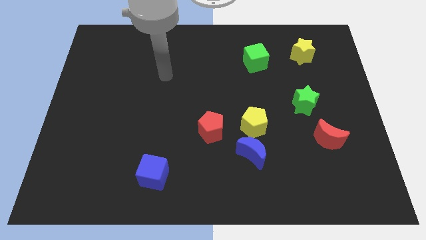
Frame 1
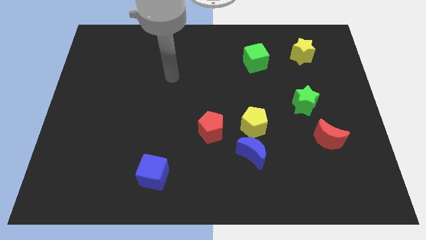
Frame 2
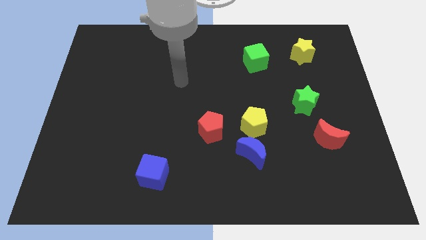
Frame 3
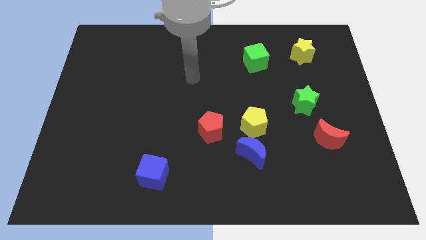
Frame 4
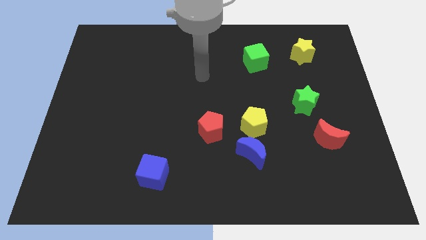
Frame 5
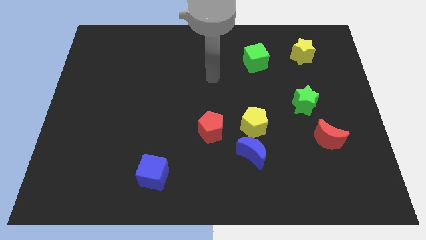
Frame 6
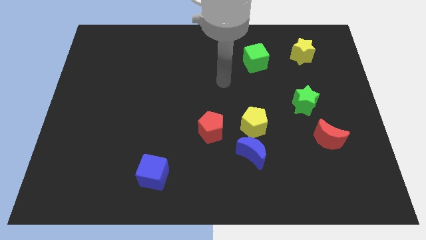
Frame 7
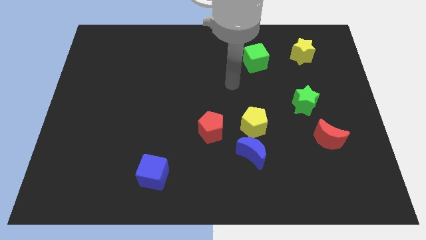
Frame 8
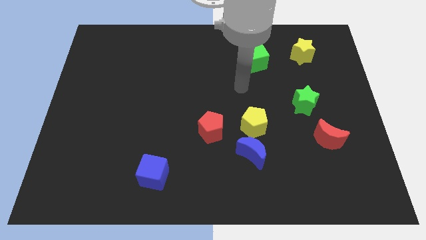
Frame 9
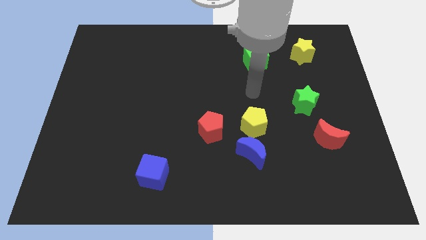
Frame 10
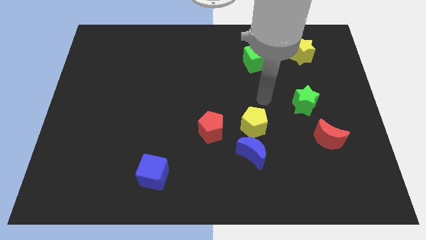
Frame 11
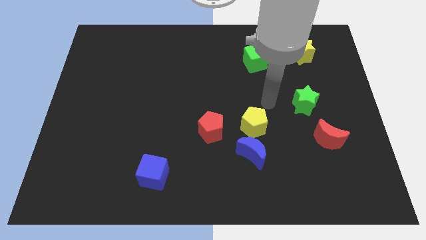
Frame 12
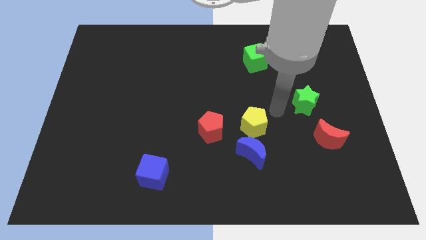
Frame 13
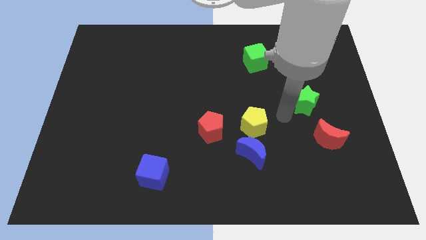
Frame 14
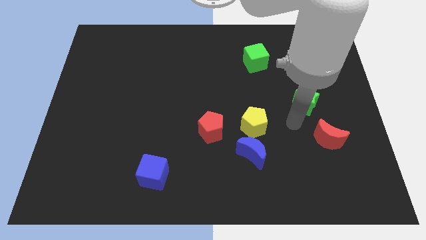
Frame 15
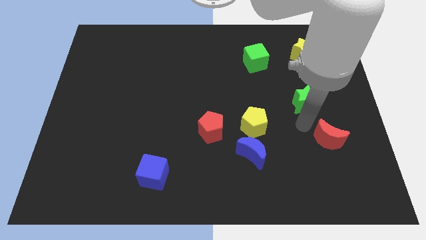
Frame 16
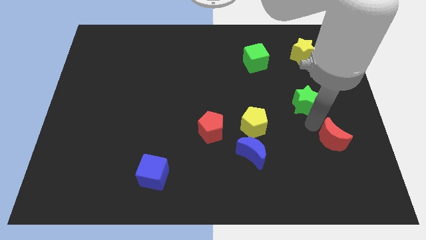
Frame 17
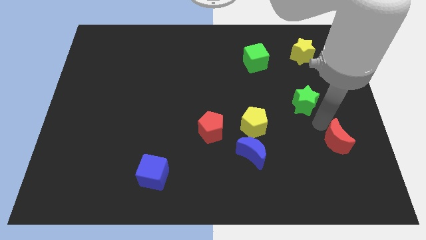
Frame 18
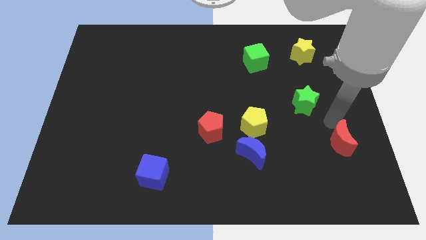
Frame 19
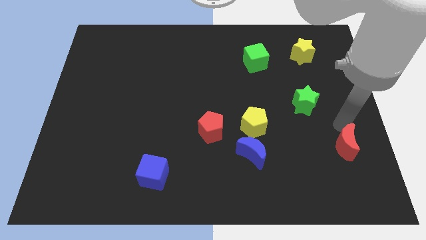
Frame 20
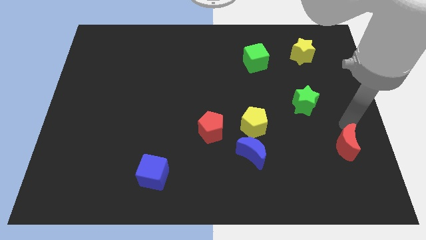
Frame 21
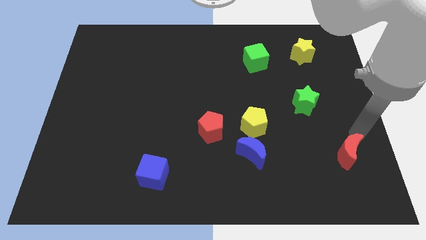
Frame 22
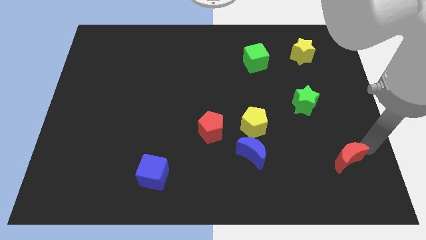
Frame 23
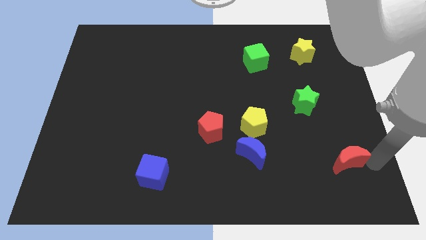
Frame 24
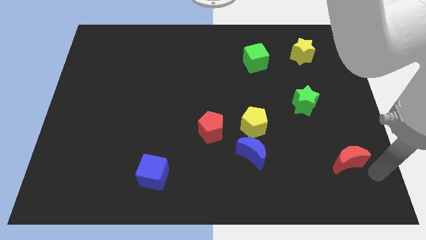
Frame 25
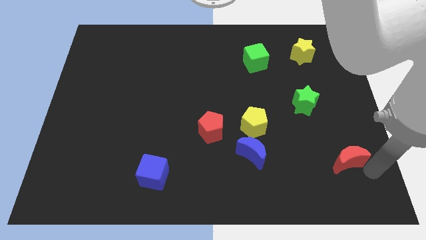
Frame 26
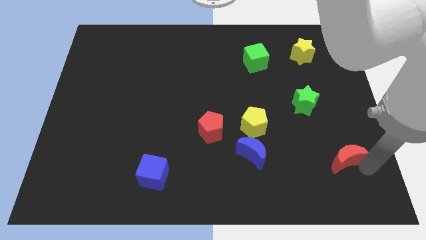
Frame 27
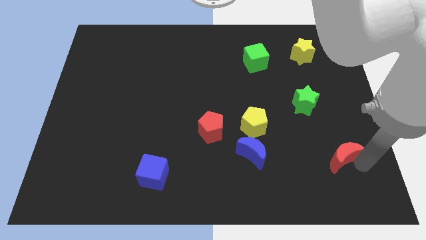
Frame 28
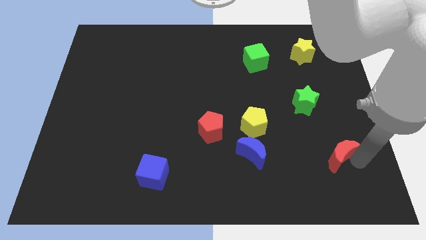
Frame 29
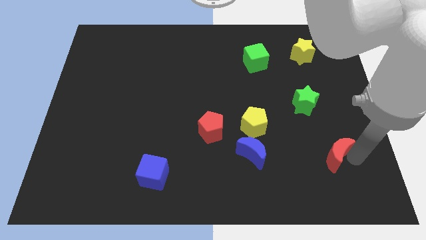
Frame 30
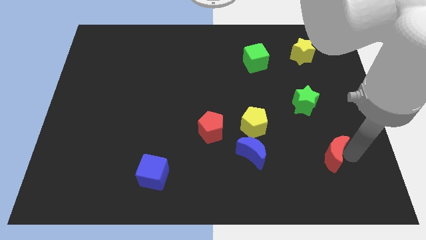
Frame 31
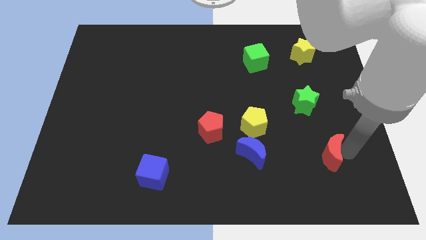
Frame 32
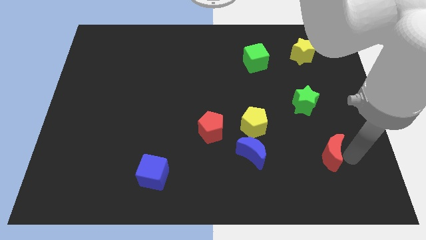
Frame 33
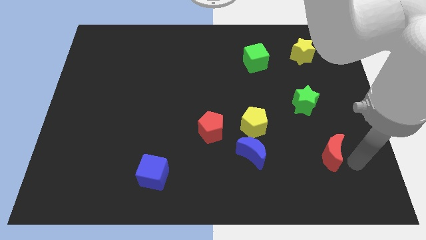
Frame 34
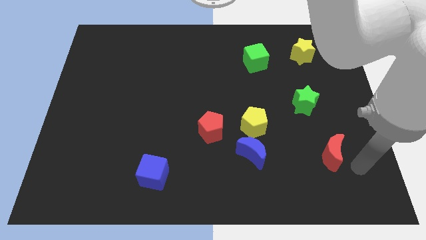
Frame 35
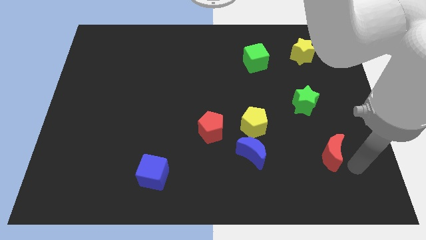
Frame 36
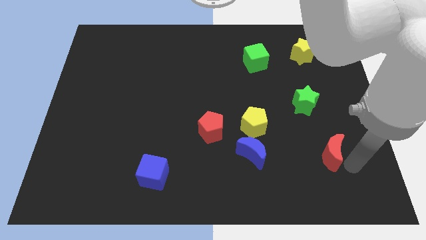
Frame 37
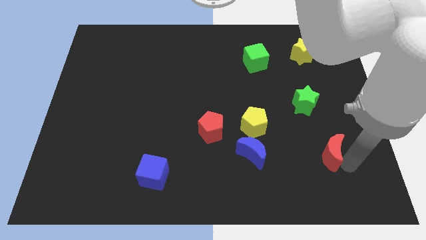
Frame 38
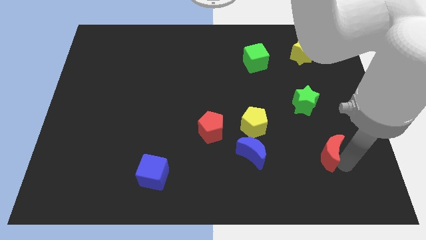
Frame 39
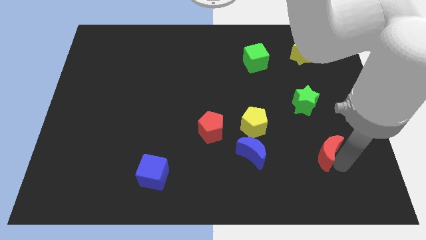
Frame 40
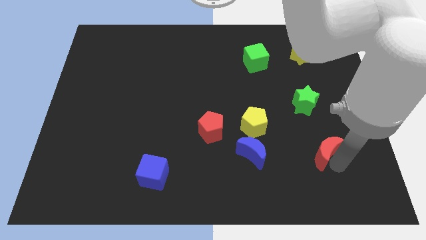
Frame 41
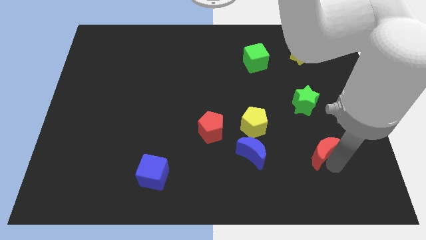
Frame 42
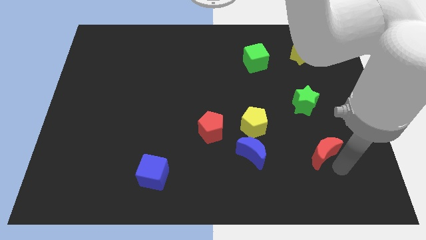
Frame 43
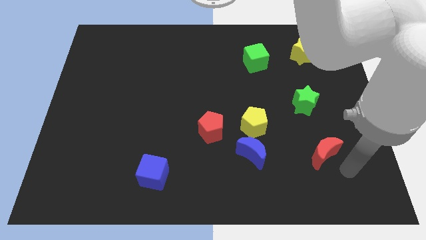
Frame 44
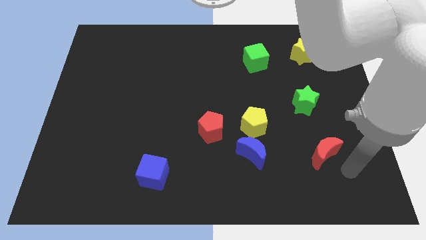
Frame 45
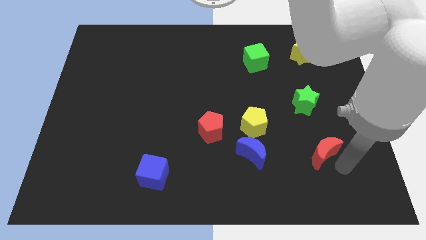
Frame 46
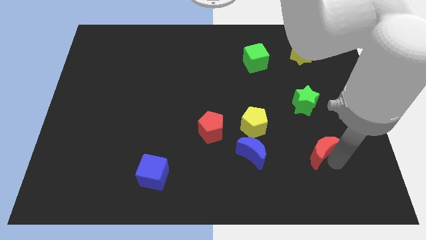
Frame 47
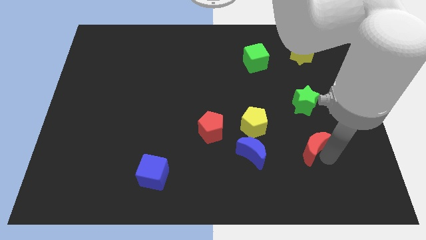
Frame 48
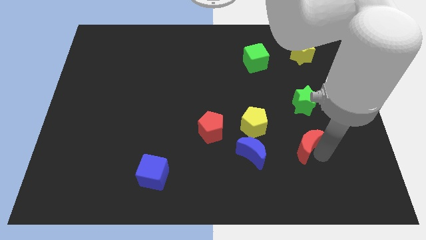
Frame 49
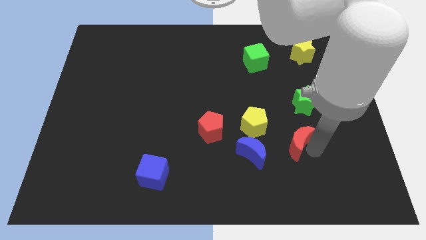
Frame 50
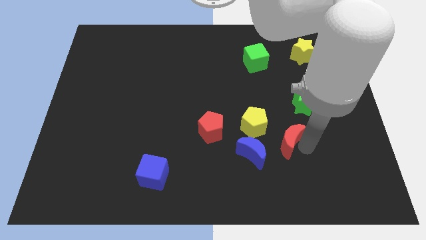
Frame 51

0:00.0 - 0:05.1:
put the red moon diagonally up and to the right of the blue moon

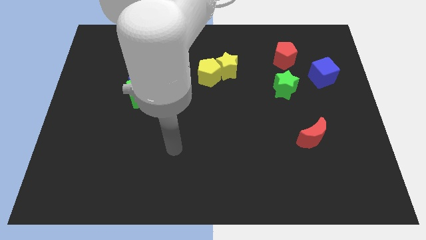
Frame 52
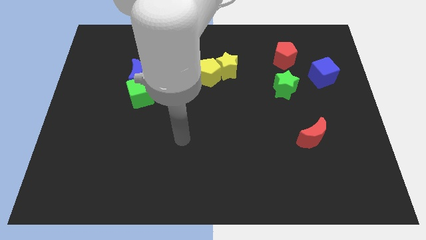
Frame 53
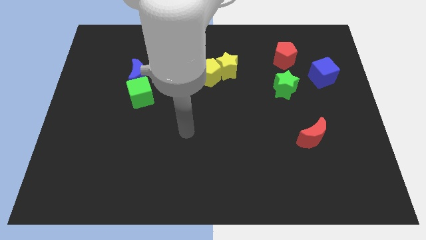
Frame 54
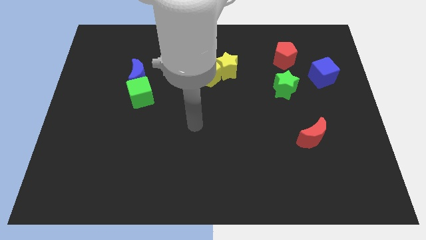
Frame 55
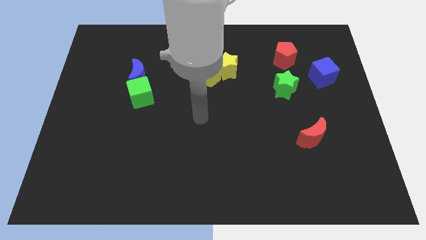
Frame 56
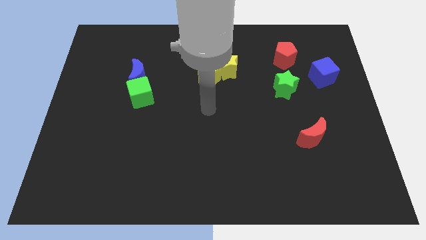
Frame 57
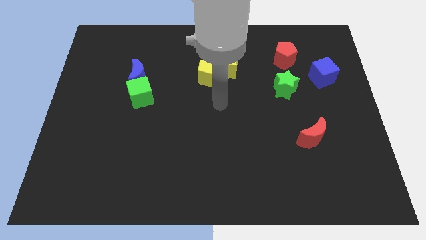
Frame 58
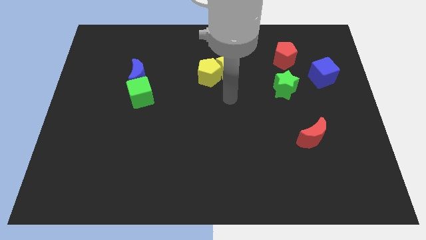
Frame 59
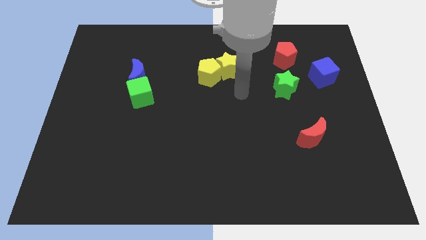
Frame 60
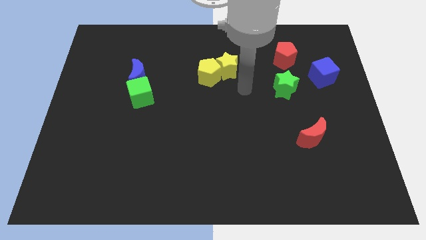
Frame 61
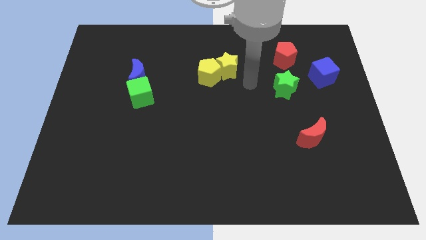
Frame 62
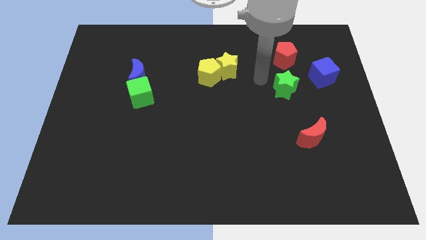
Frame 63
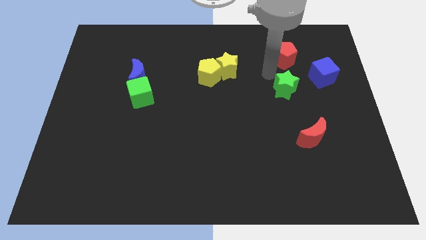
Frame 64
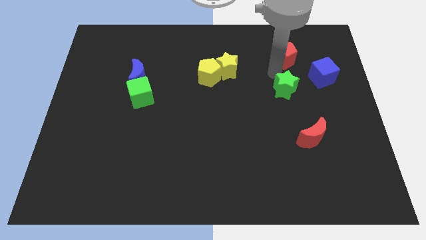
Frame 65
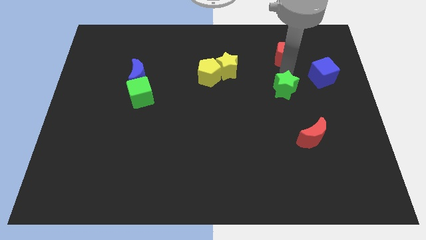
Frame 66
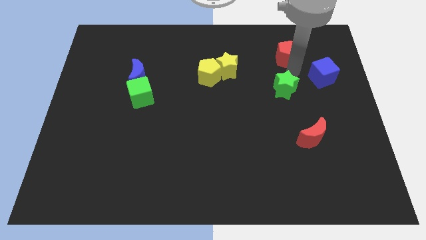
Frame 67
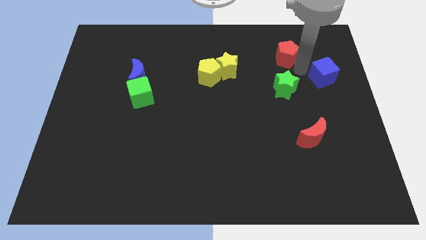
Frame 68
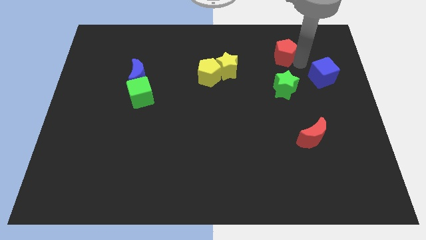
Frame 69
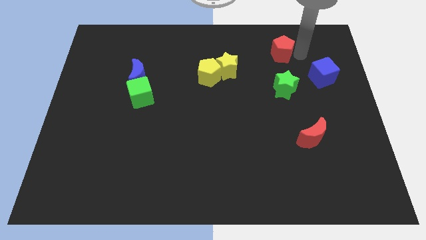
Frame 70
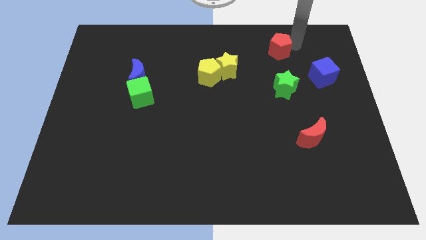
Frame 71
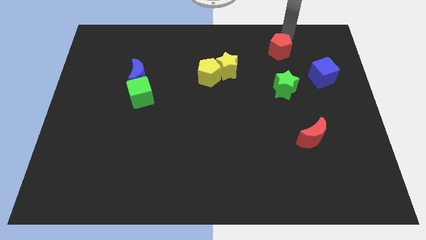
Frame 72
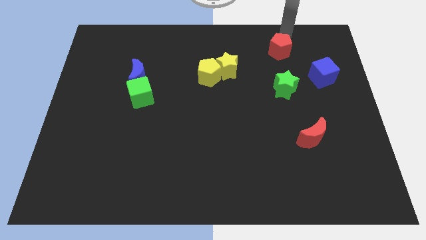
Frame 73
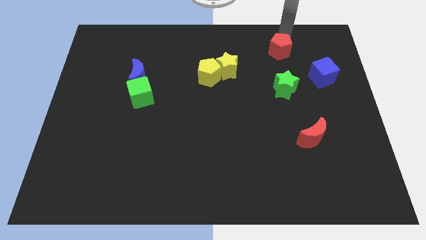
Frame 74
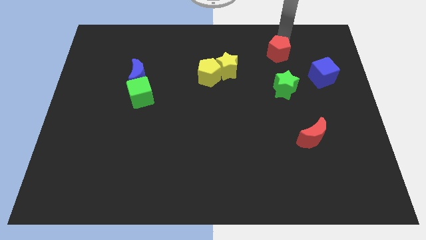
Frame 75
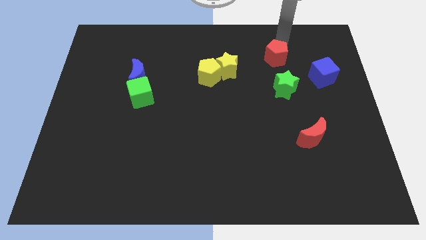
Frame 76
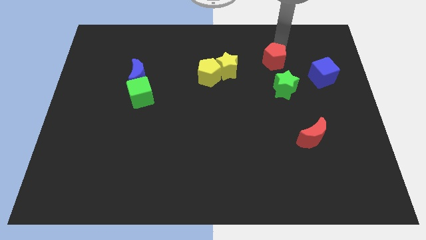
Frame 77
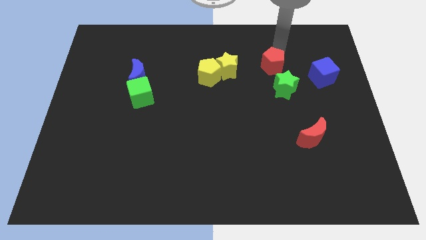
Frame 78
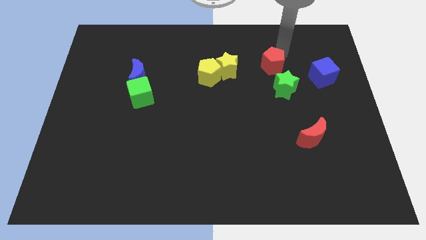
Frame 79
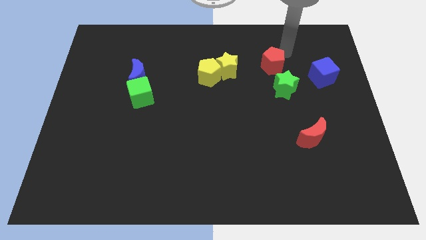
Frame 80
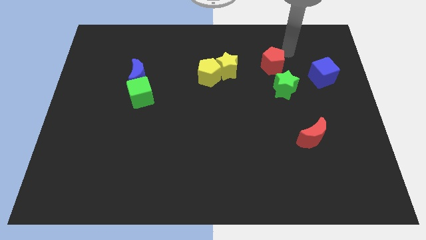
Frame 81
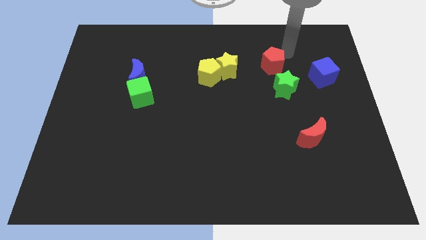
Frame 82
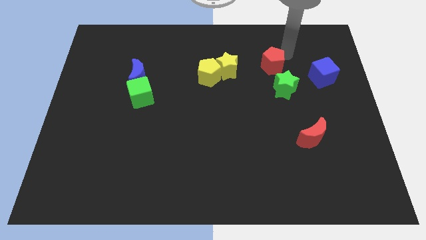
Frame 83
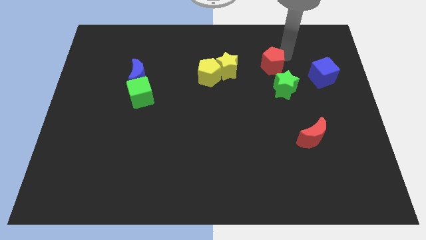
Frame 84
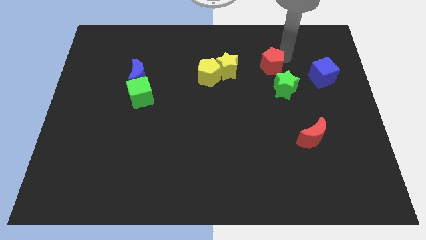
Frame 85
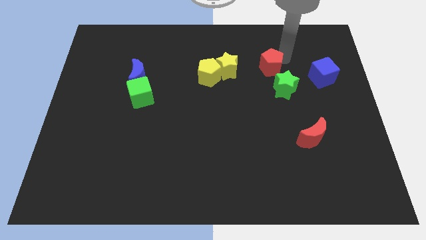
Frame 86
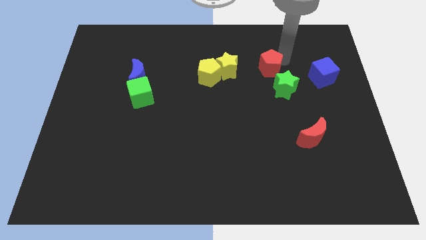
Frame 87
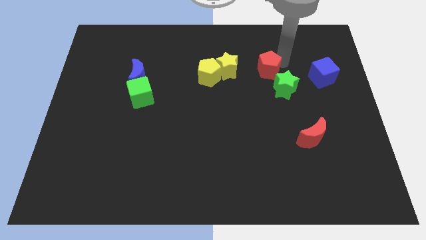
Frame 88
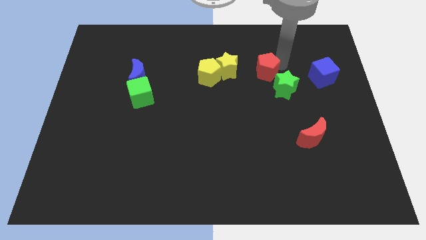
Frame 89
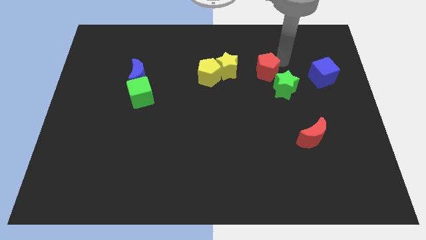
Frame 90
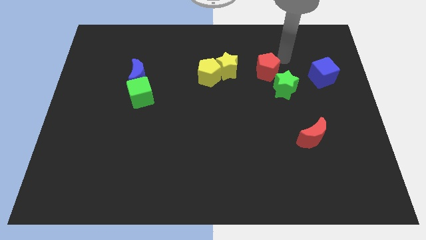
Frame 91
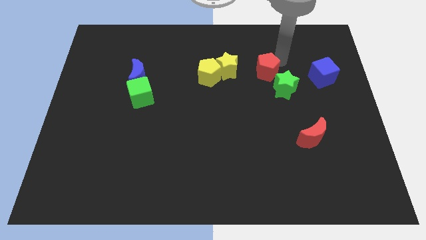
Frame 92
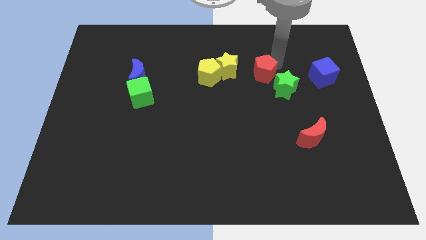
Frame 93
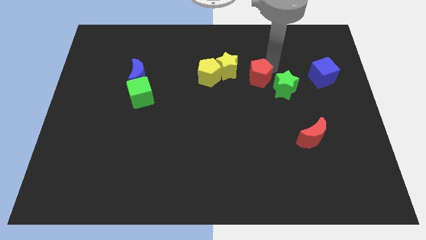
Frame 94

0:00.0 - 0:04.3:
put the red pentagon to the bottom right of the yellow star
